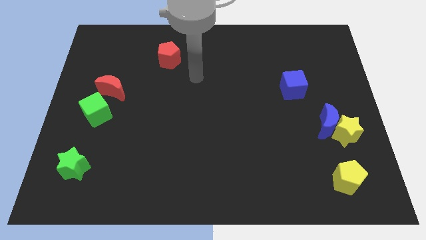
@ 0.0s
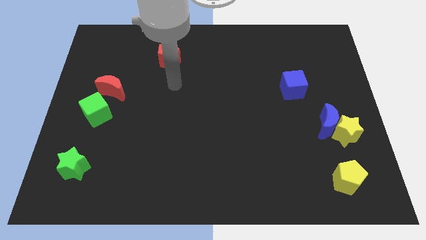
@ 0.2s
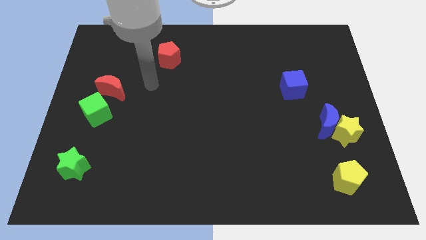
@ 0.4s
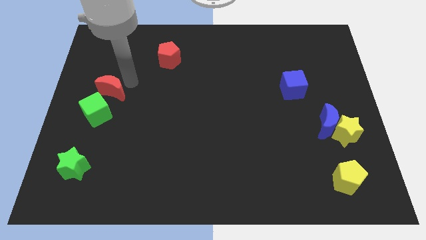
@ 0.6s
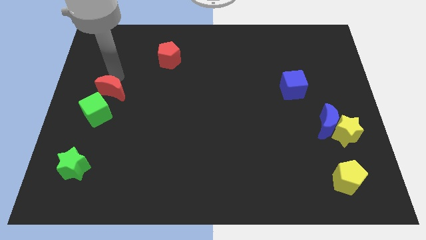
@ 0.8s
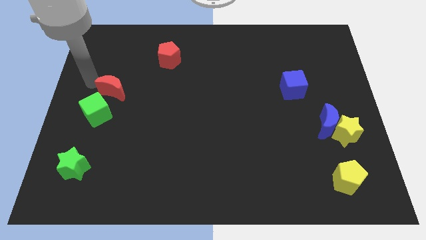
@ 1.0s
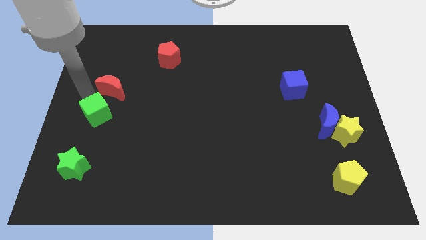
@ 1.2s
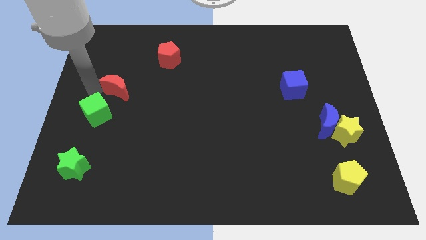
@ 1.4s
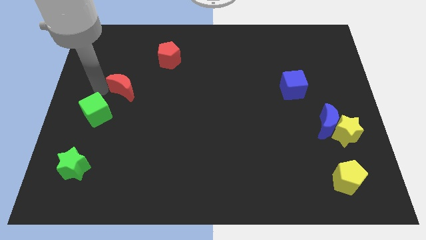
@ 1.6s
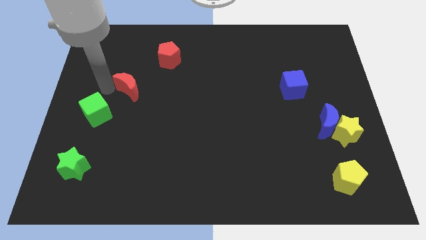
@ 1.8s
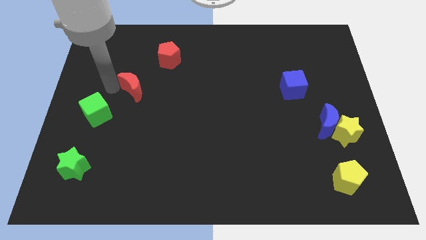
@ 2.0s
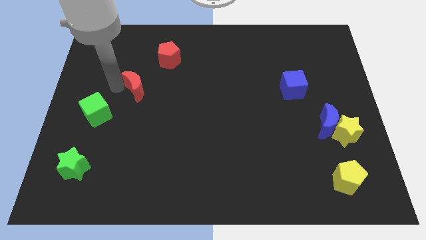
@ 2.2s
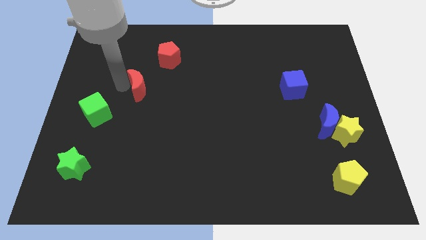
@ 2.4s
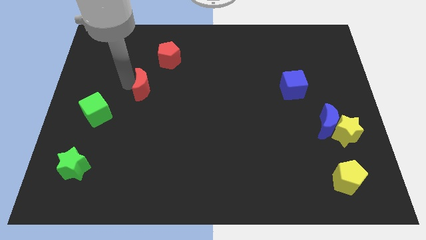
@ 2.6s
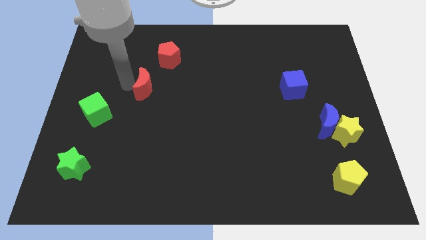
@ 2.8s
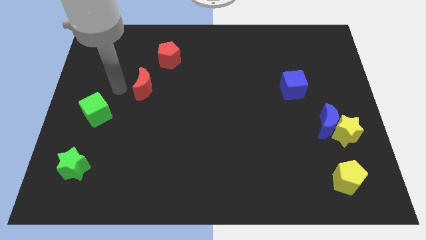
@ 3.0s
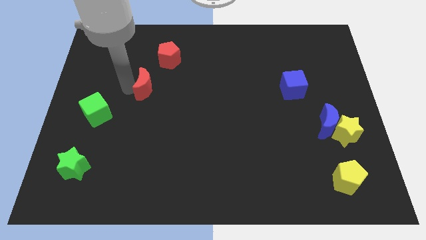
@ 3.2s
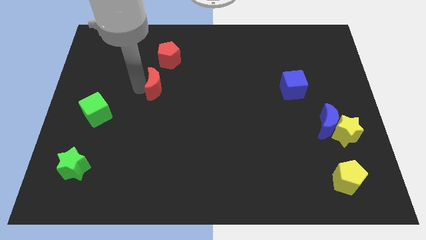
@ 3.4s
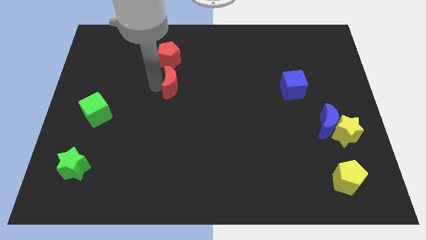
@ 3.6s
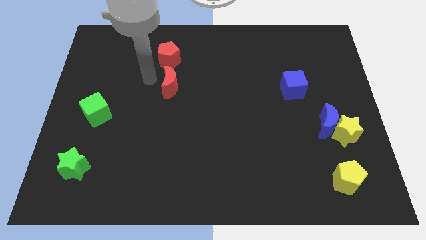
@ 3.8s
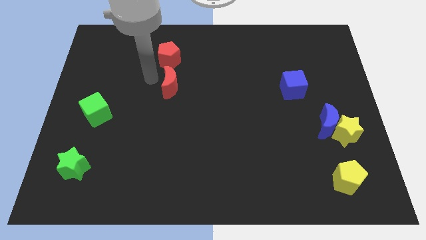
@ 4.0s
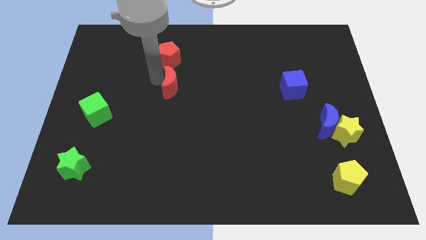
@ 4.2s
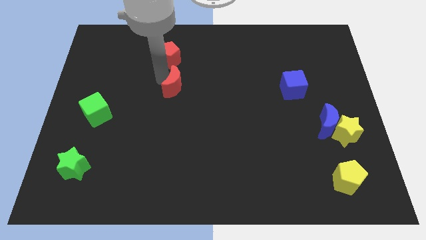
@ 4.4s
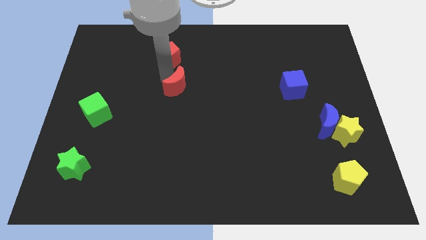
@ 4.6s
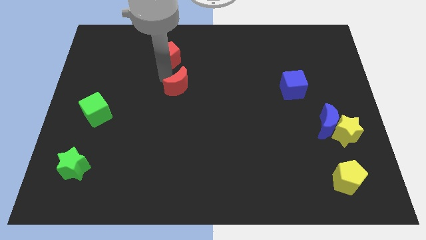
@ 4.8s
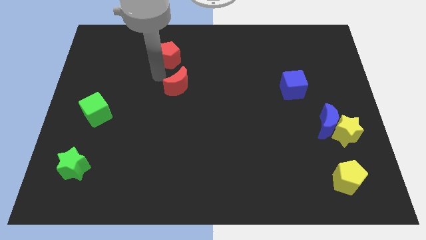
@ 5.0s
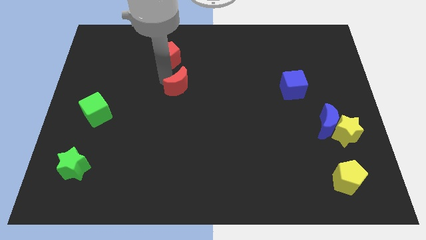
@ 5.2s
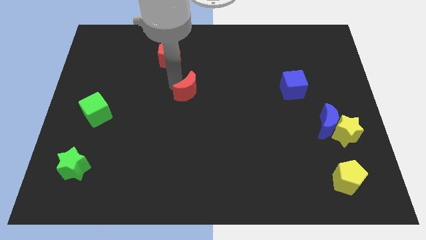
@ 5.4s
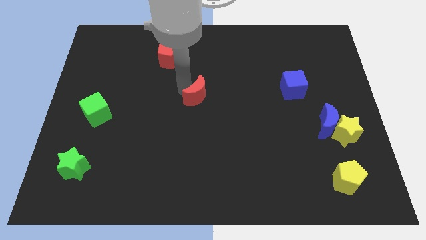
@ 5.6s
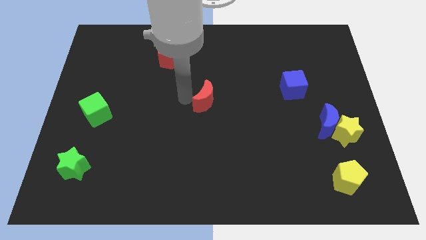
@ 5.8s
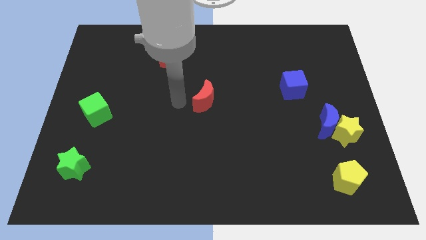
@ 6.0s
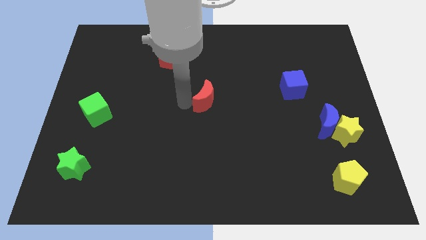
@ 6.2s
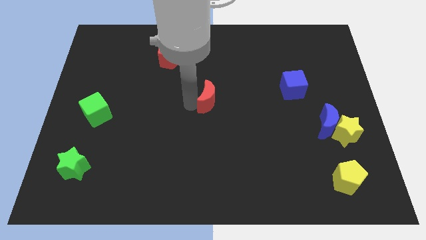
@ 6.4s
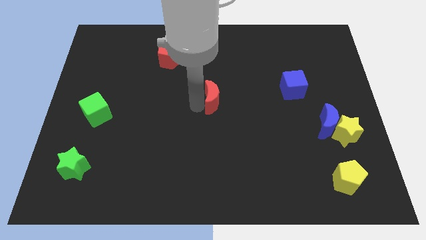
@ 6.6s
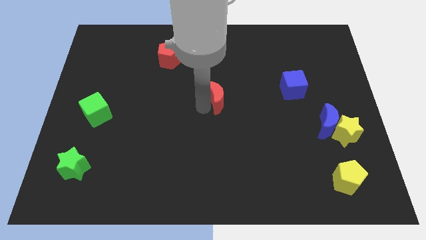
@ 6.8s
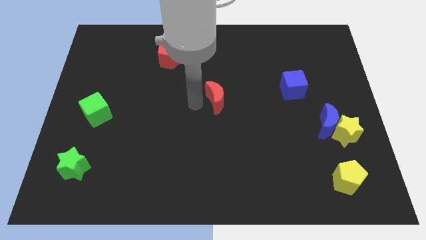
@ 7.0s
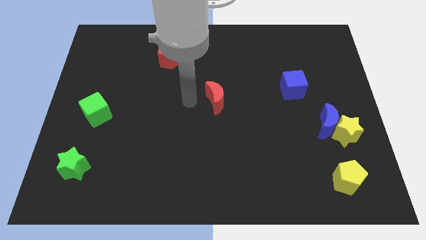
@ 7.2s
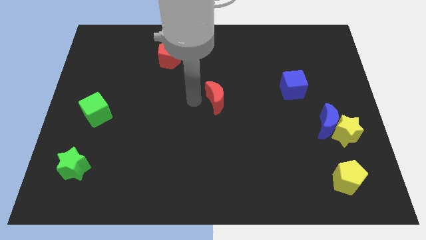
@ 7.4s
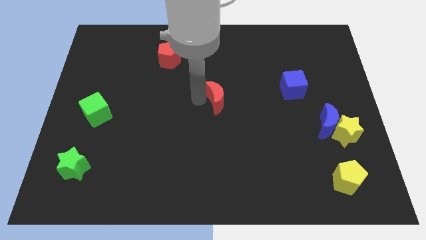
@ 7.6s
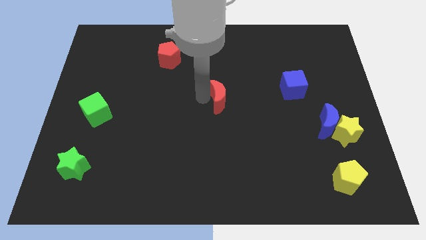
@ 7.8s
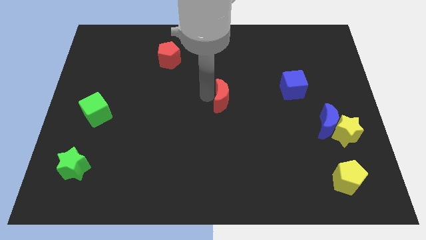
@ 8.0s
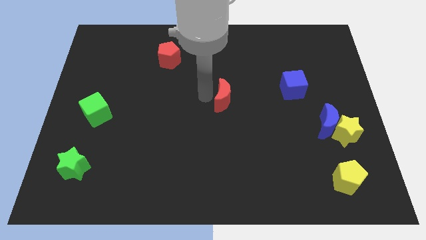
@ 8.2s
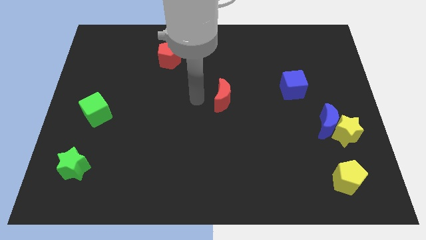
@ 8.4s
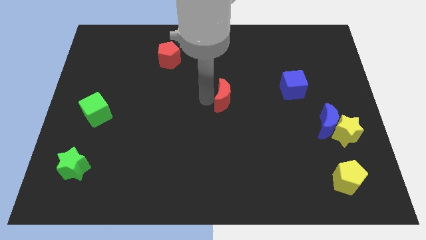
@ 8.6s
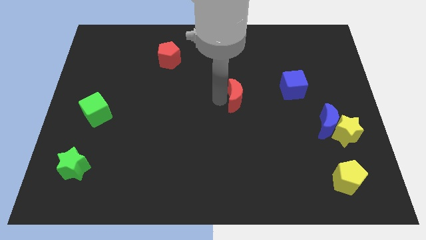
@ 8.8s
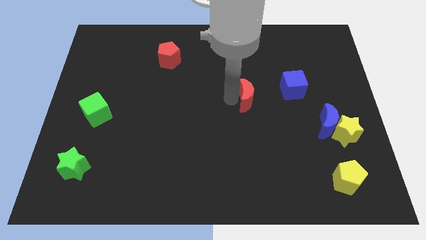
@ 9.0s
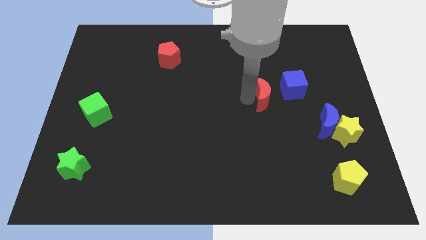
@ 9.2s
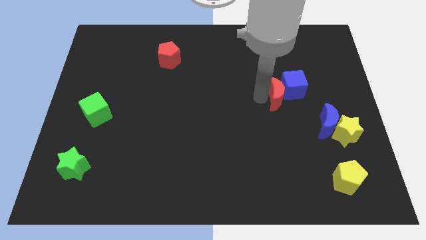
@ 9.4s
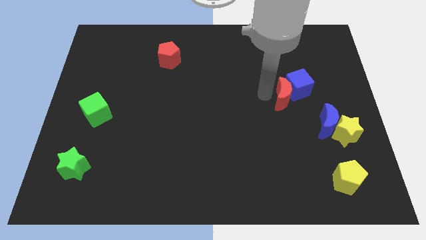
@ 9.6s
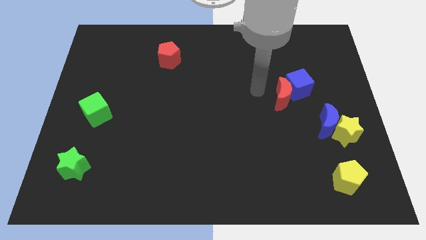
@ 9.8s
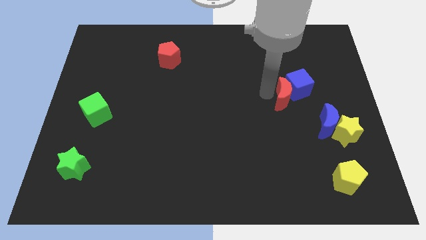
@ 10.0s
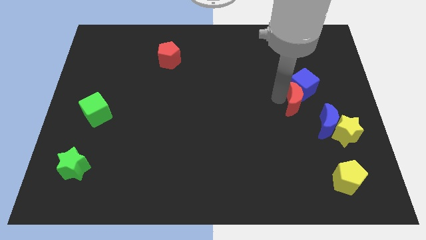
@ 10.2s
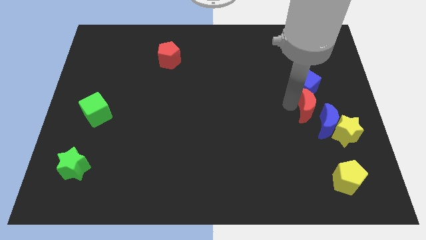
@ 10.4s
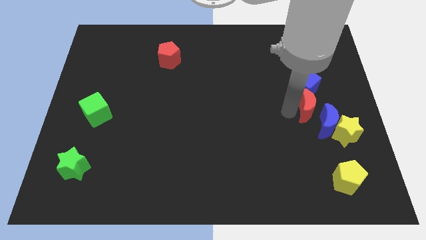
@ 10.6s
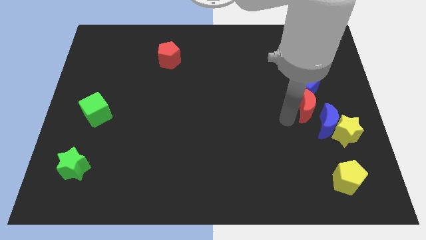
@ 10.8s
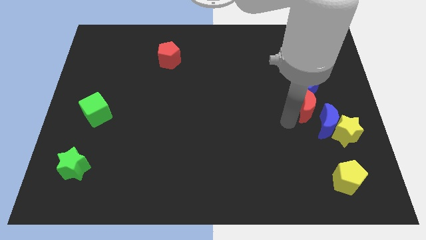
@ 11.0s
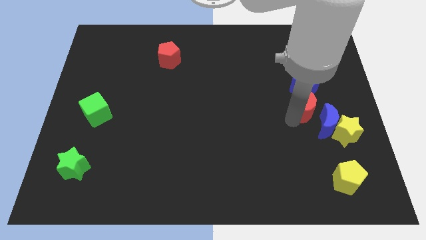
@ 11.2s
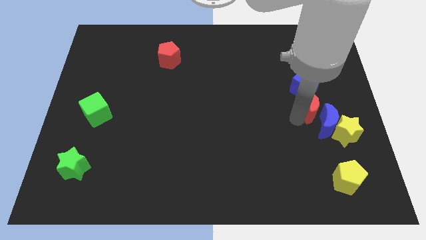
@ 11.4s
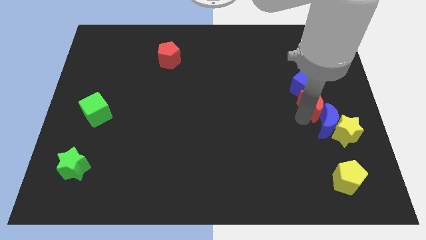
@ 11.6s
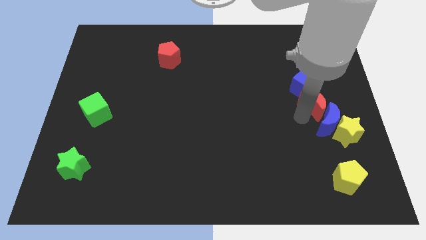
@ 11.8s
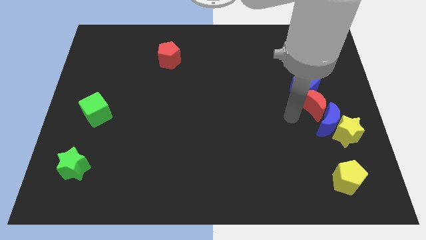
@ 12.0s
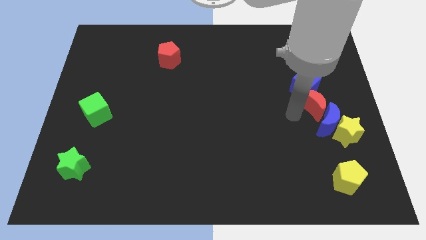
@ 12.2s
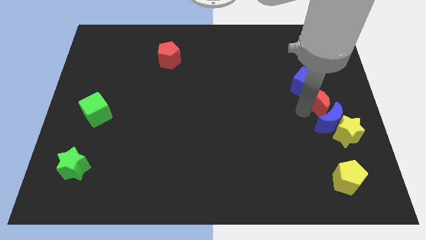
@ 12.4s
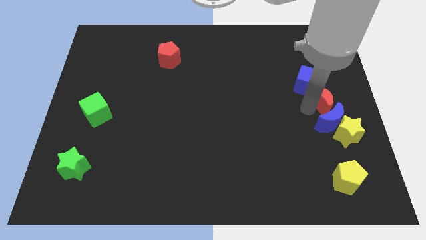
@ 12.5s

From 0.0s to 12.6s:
push the red moon to the right side
